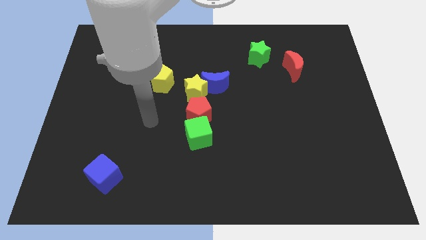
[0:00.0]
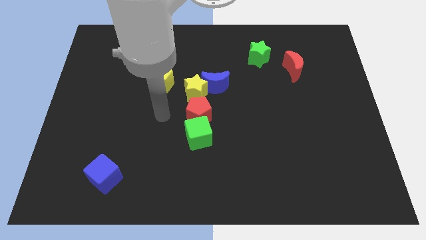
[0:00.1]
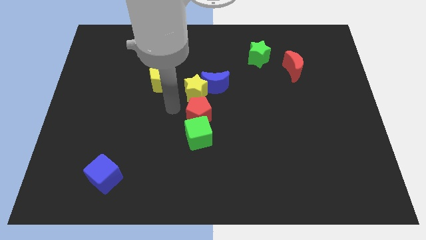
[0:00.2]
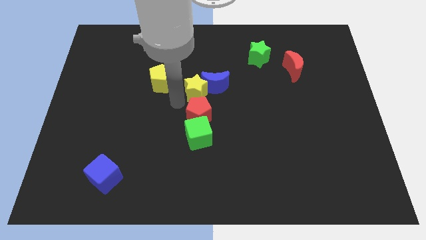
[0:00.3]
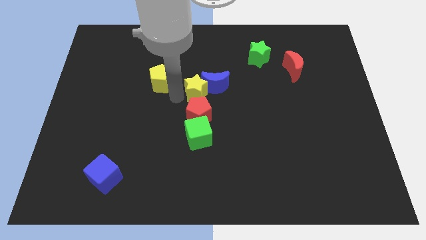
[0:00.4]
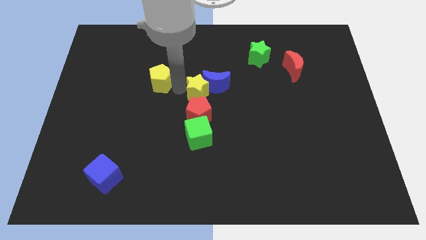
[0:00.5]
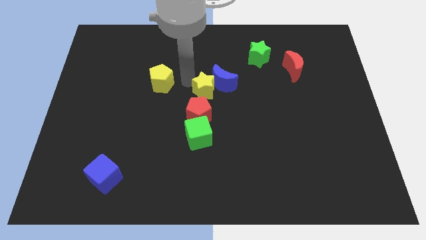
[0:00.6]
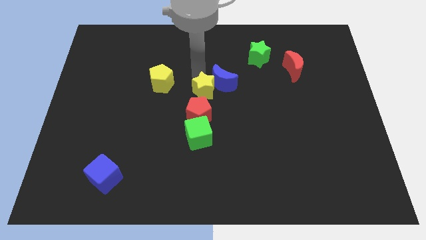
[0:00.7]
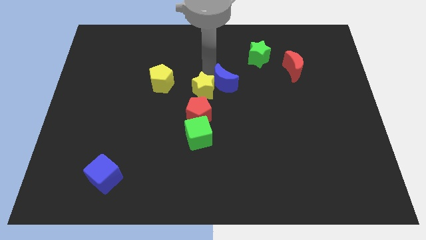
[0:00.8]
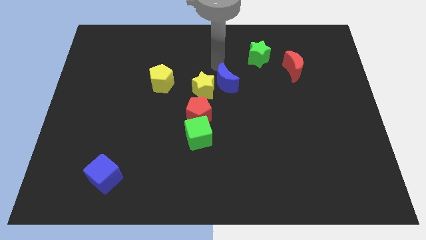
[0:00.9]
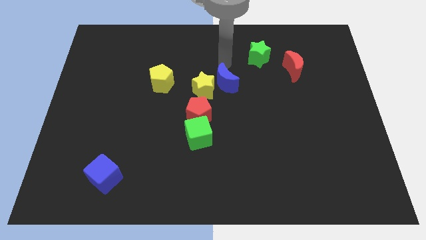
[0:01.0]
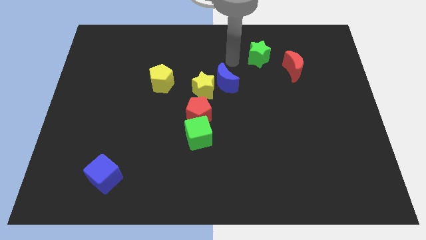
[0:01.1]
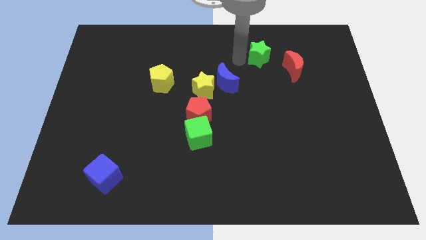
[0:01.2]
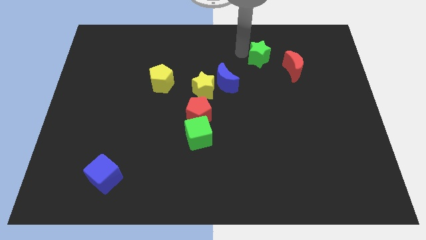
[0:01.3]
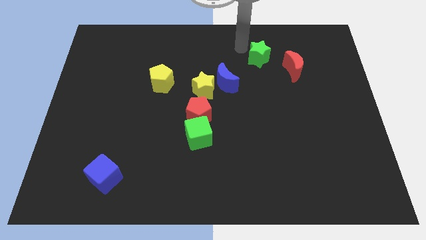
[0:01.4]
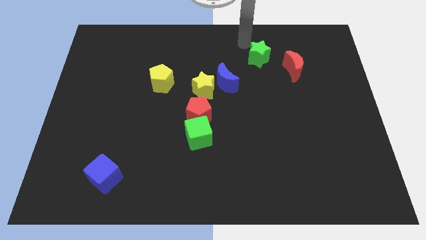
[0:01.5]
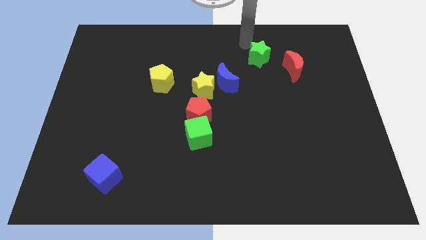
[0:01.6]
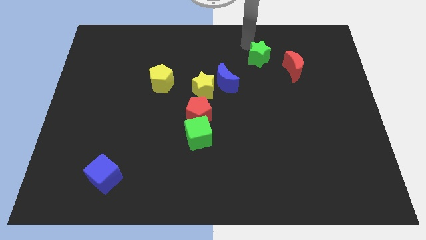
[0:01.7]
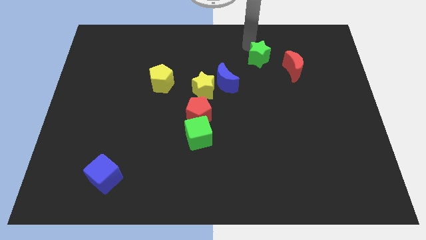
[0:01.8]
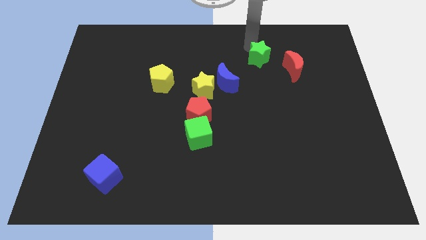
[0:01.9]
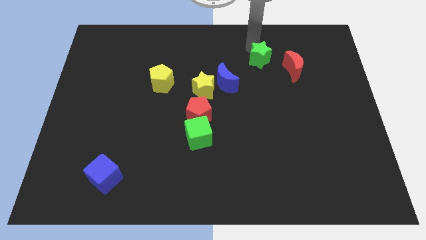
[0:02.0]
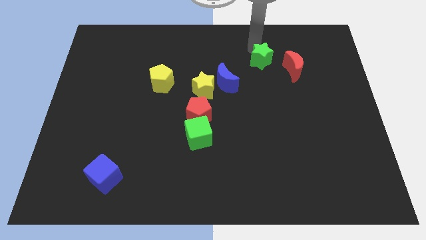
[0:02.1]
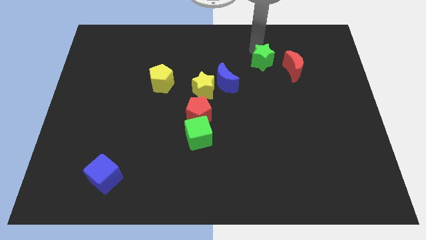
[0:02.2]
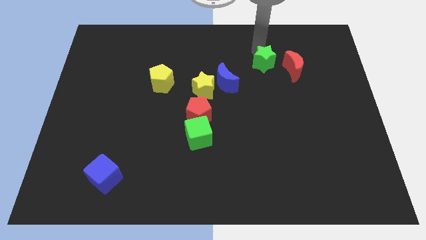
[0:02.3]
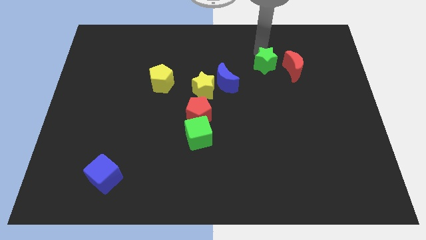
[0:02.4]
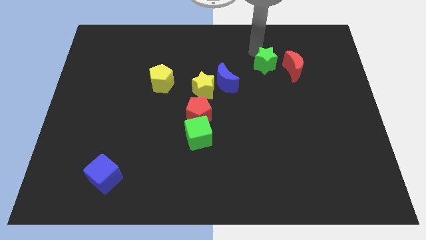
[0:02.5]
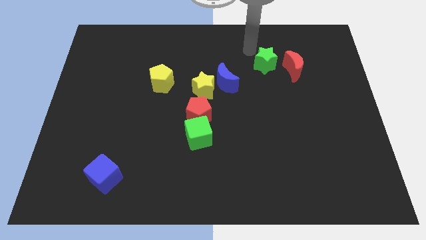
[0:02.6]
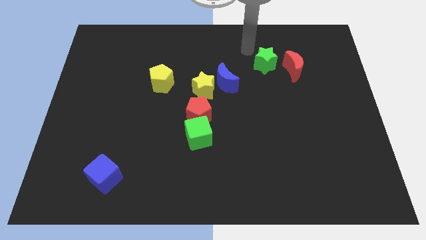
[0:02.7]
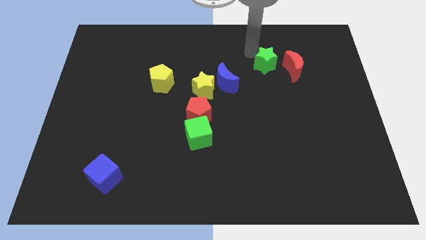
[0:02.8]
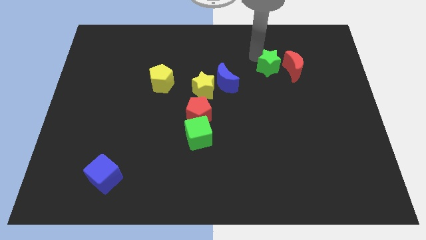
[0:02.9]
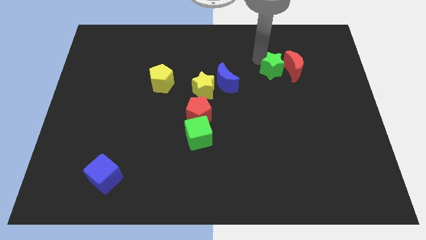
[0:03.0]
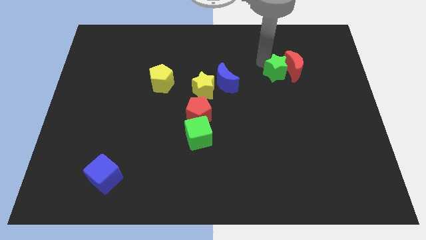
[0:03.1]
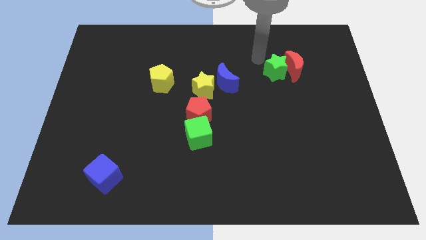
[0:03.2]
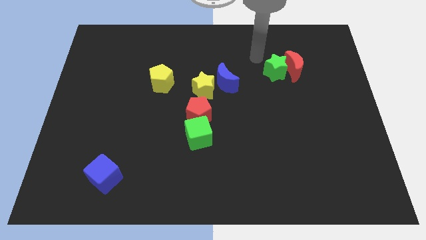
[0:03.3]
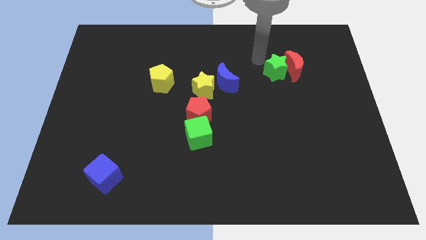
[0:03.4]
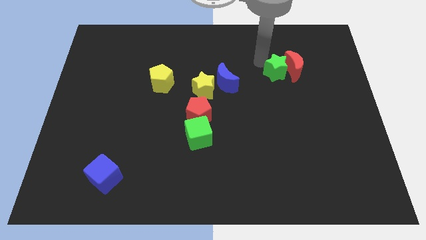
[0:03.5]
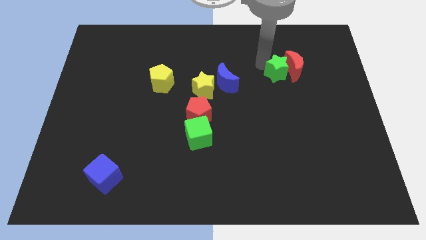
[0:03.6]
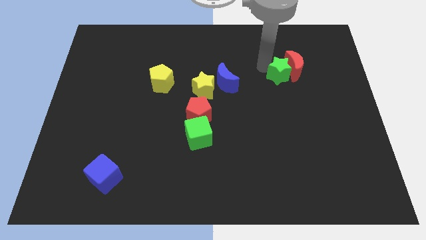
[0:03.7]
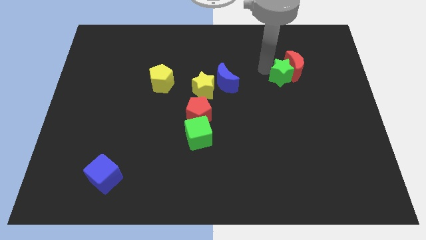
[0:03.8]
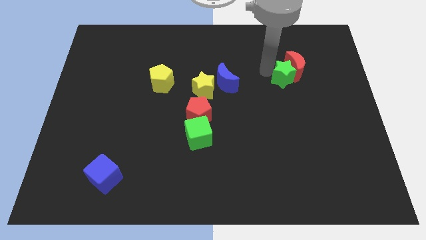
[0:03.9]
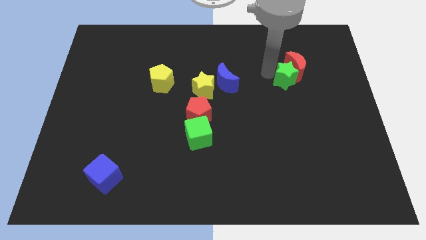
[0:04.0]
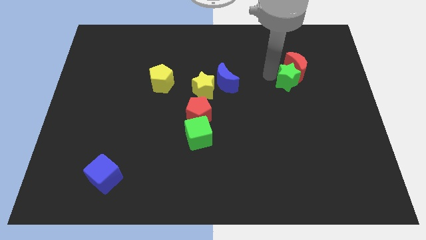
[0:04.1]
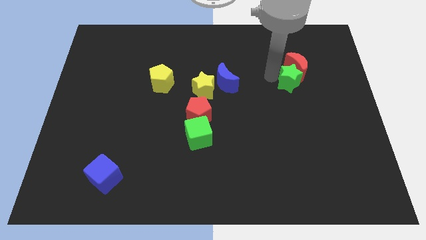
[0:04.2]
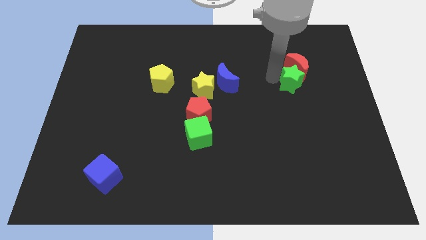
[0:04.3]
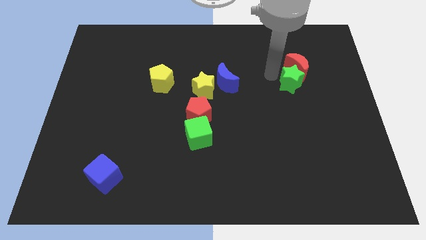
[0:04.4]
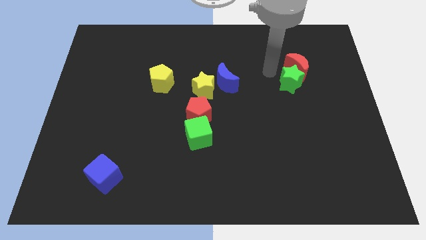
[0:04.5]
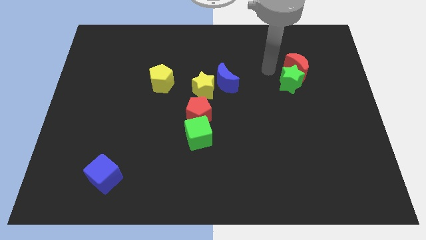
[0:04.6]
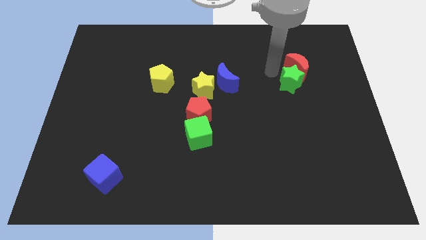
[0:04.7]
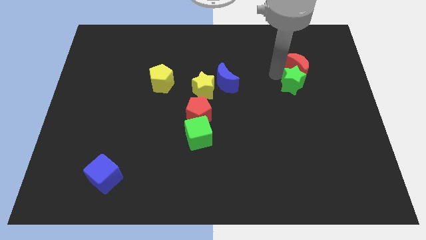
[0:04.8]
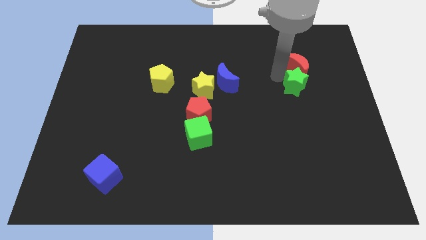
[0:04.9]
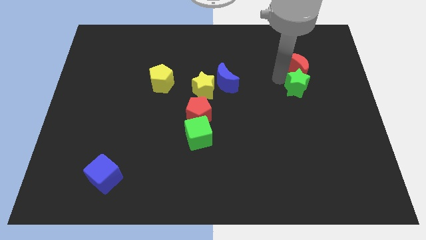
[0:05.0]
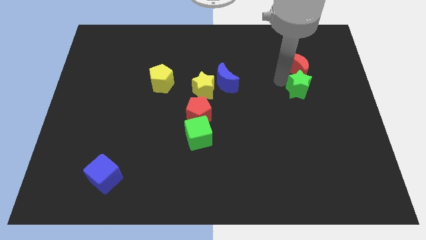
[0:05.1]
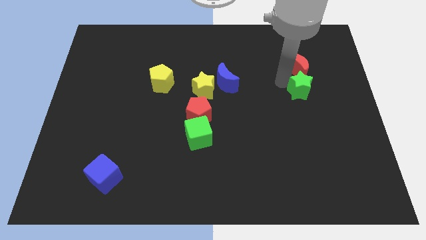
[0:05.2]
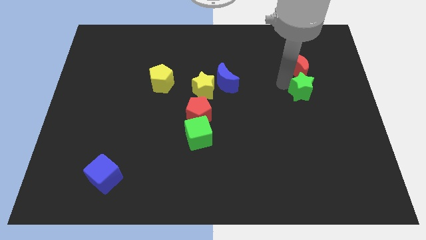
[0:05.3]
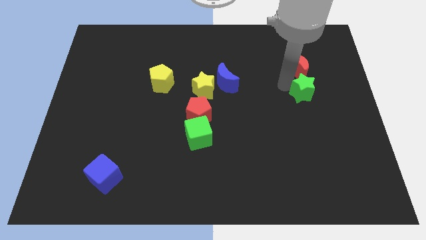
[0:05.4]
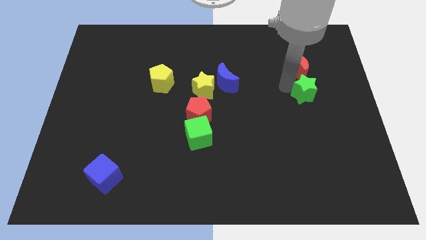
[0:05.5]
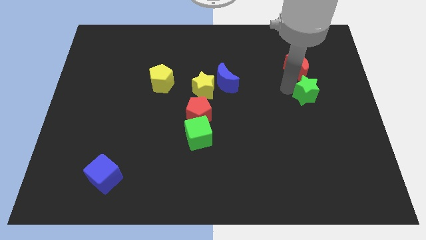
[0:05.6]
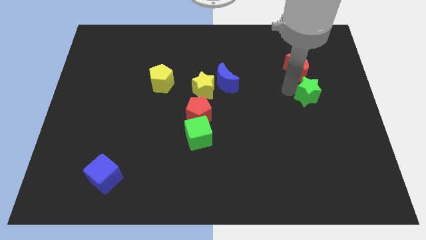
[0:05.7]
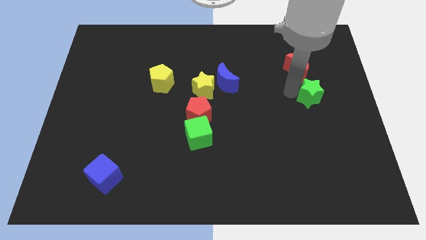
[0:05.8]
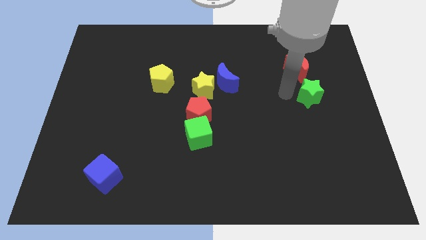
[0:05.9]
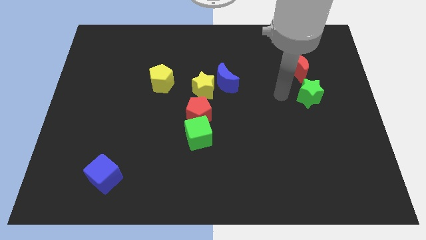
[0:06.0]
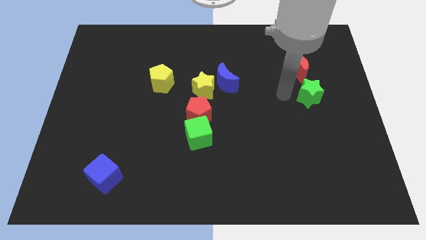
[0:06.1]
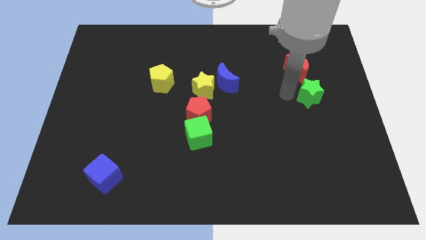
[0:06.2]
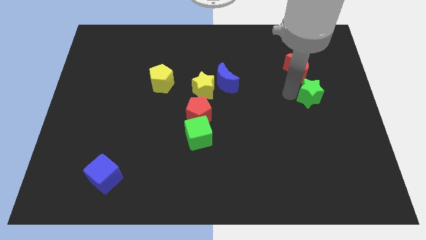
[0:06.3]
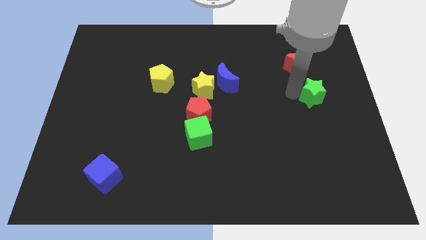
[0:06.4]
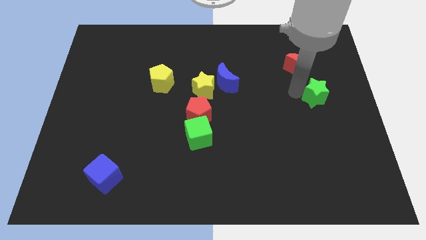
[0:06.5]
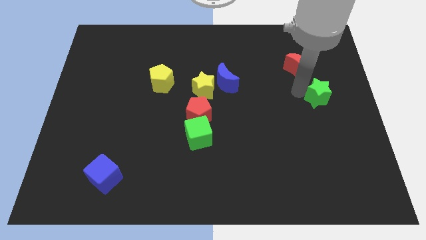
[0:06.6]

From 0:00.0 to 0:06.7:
slide the green star to the right side of the board
